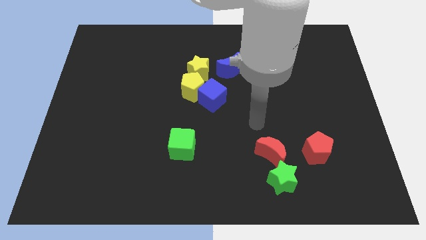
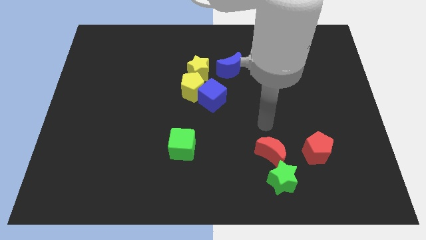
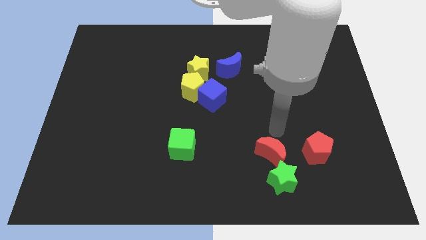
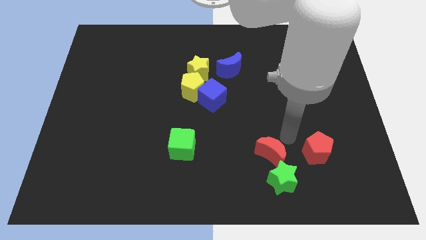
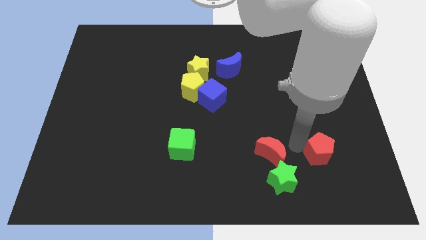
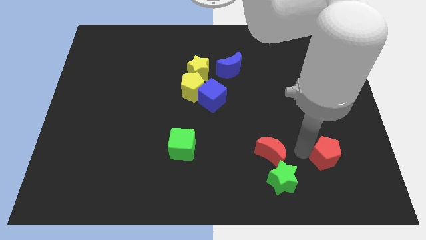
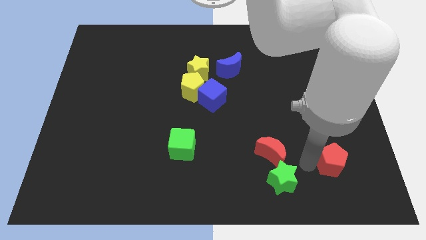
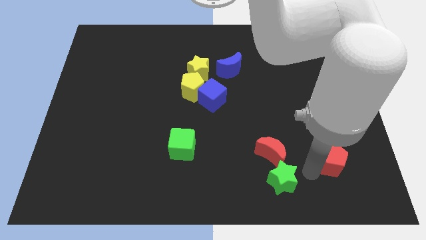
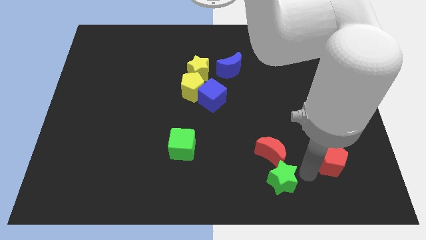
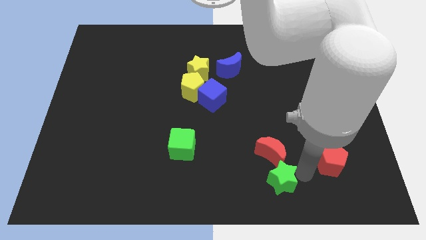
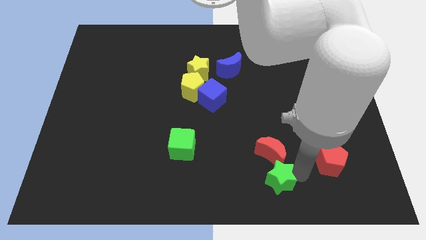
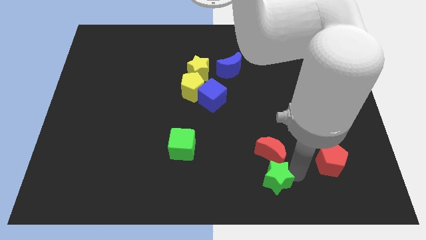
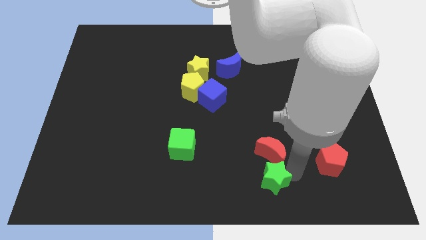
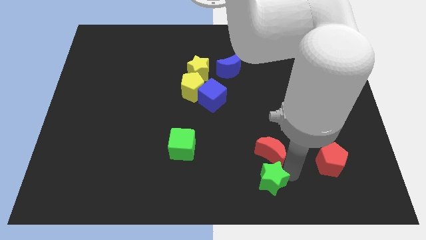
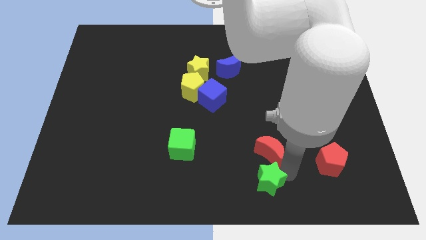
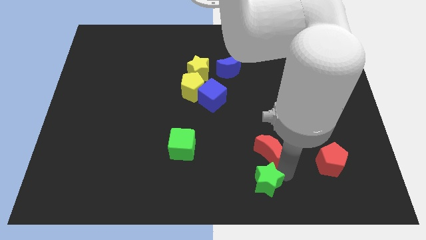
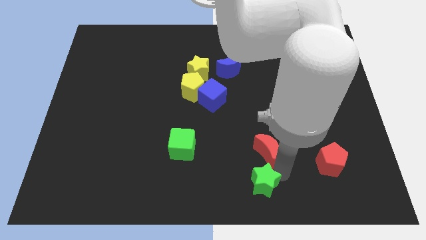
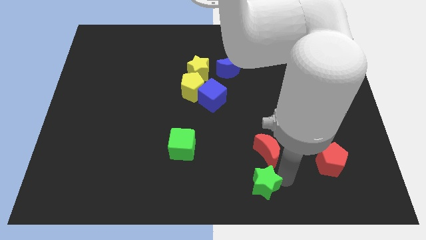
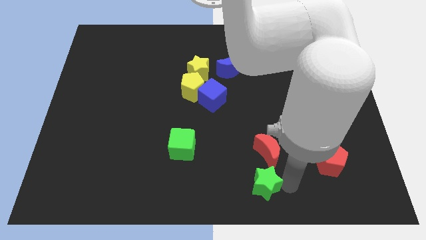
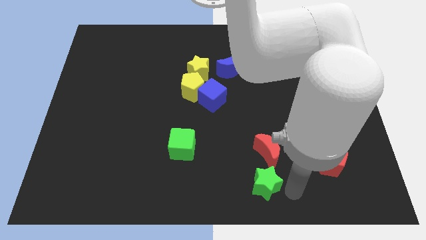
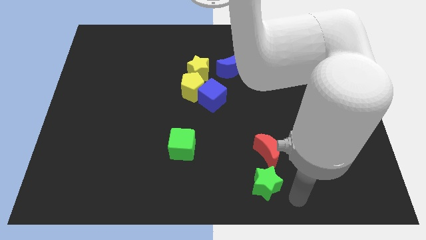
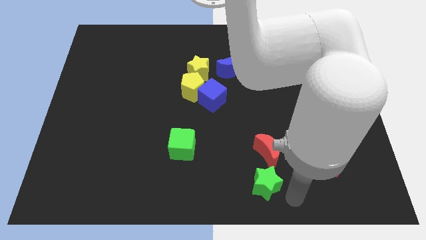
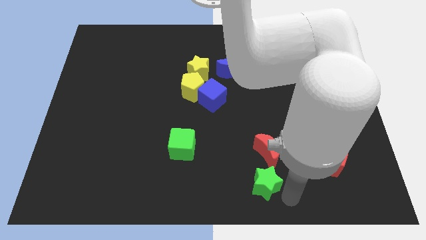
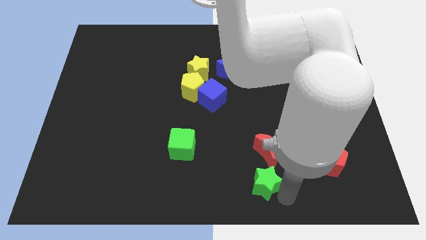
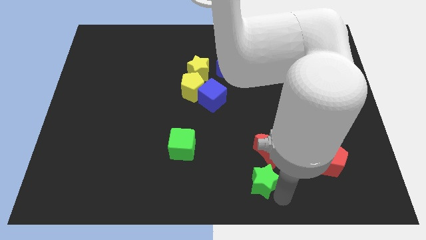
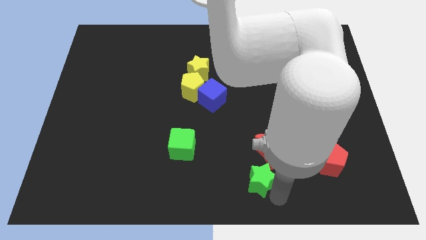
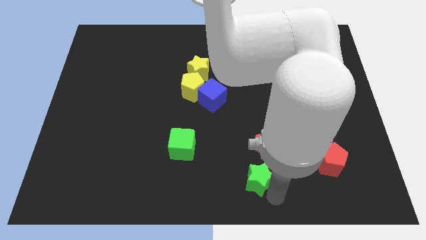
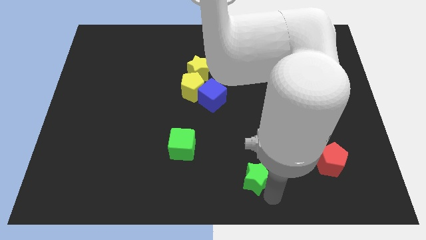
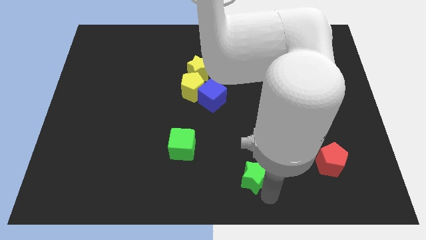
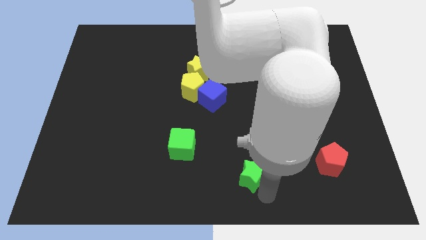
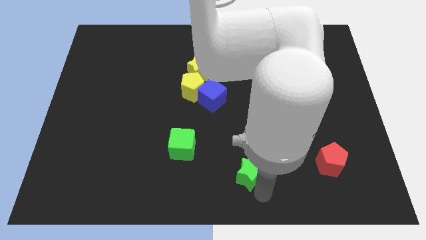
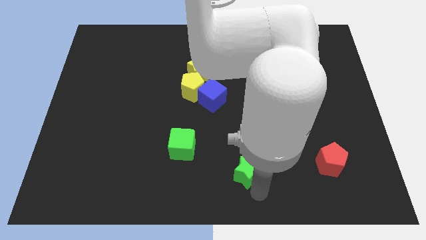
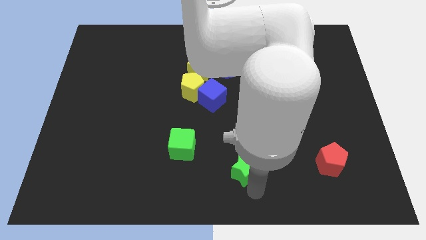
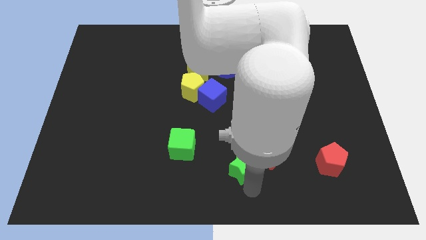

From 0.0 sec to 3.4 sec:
slightly push the green star diagonally upwards and to the left

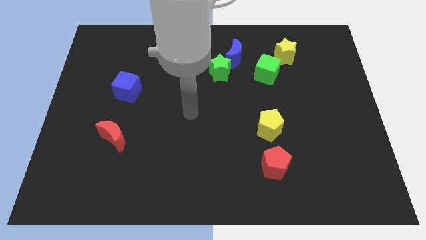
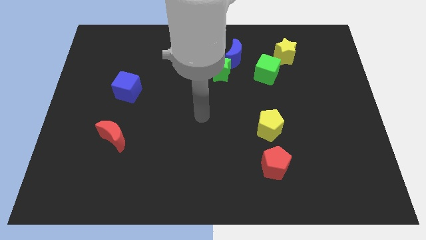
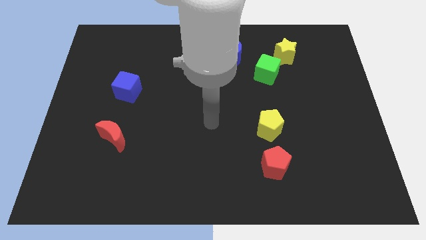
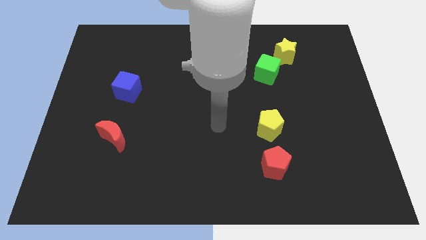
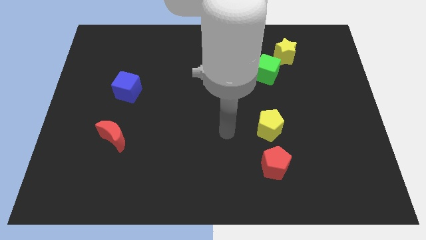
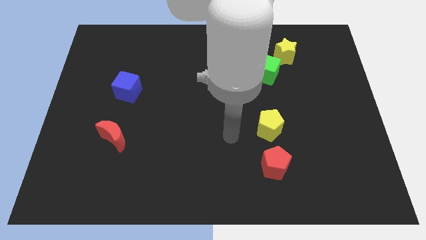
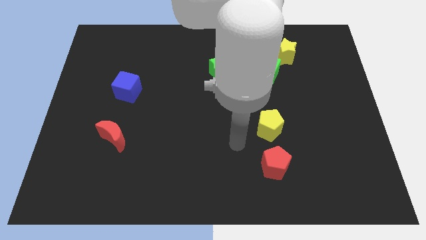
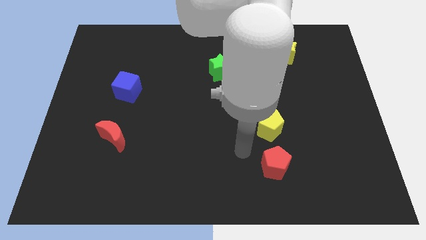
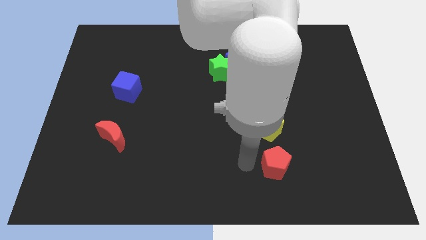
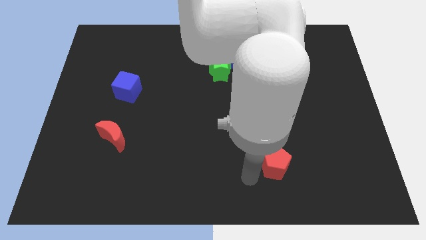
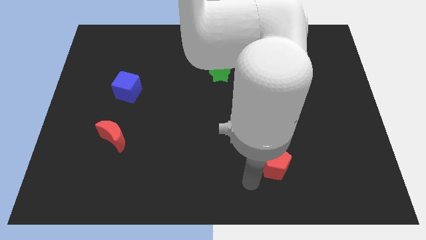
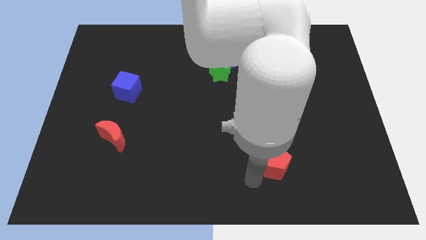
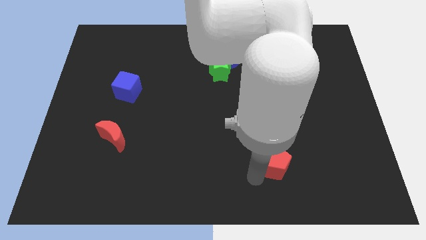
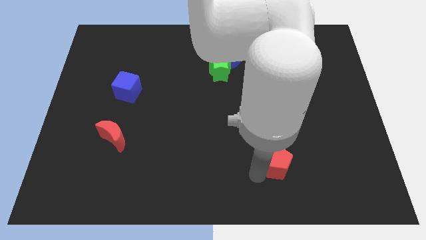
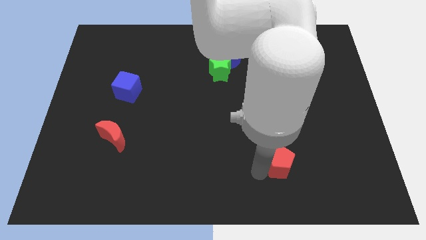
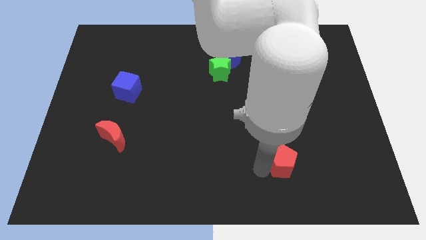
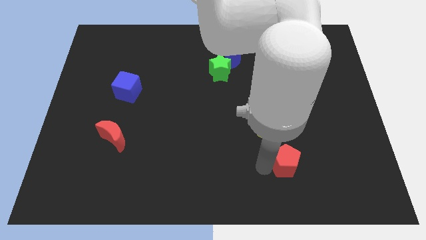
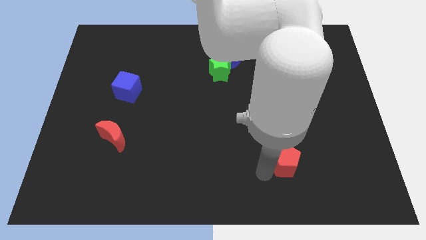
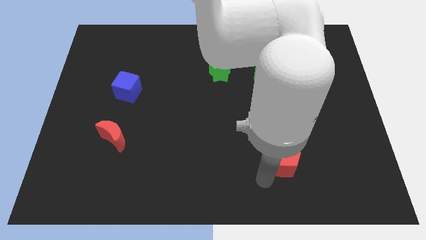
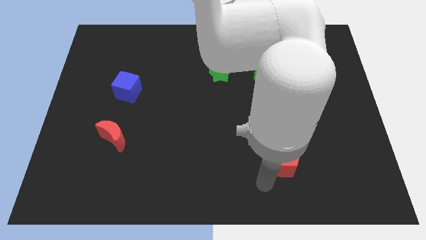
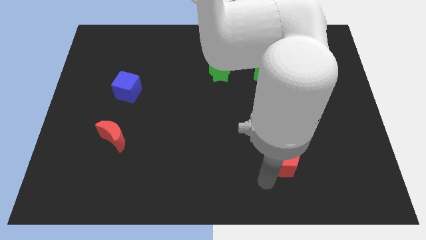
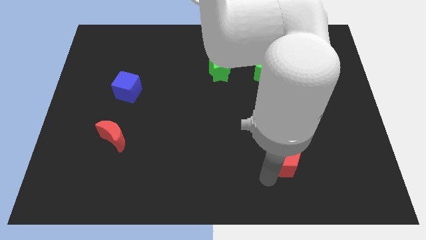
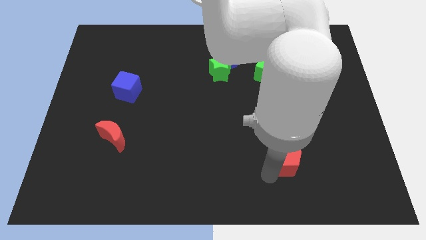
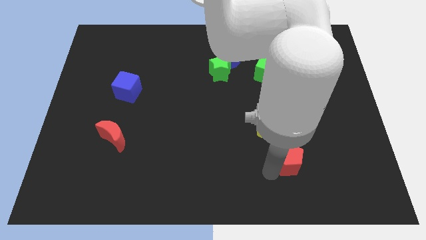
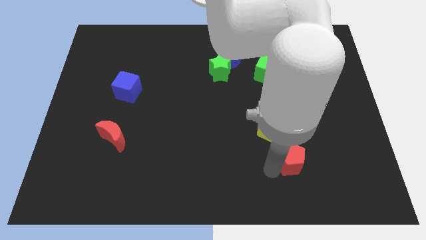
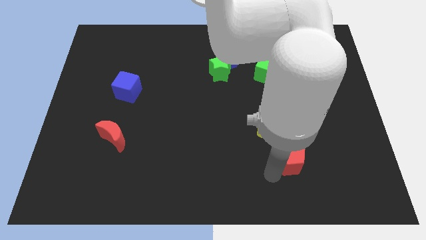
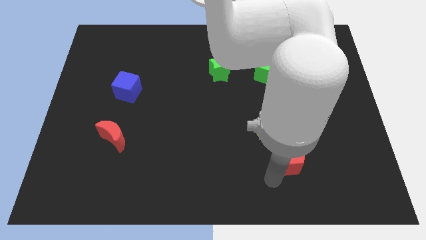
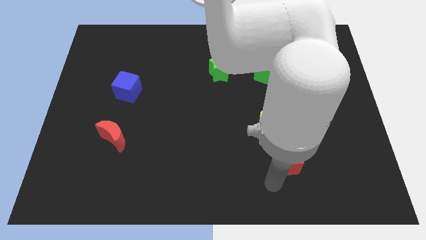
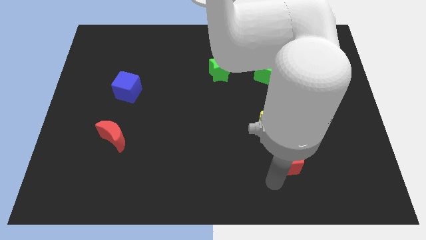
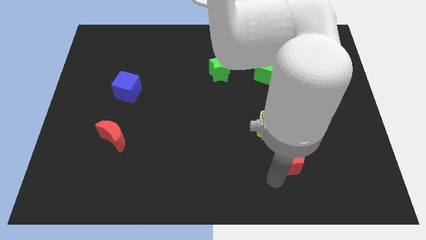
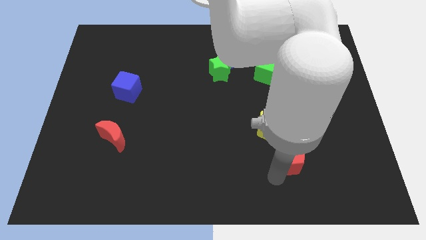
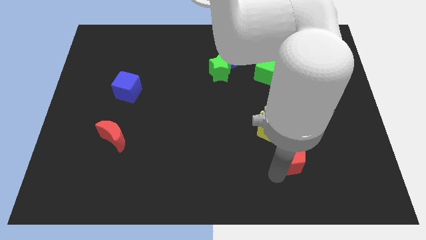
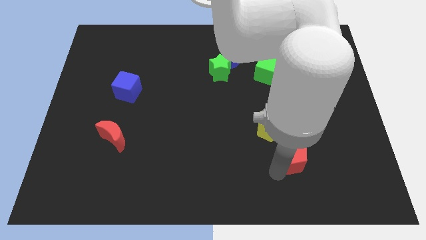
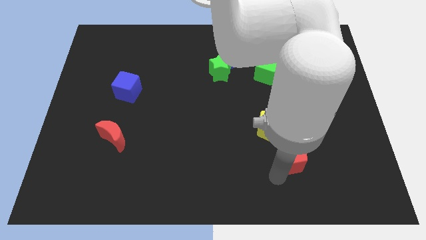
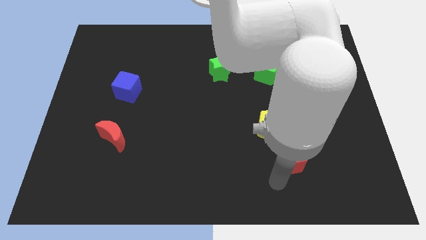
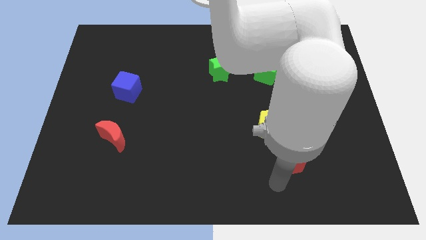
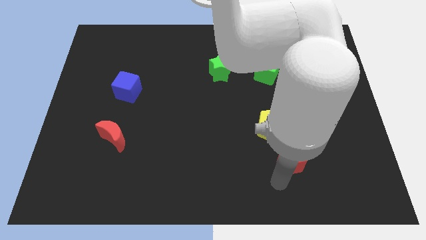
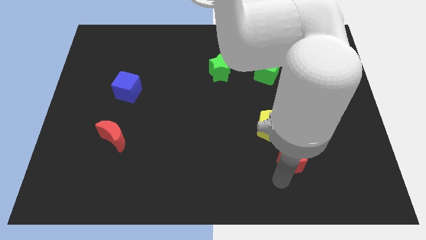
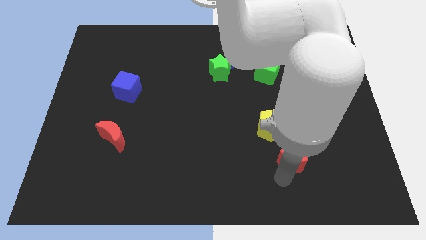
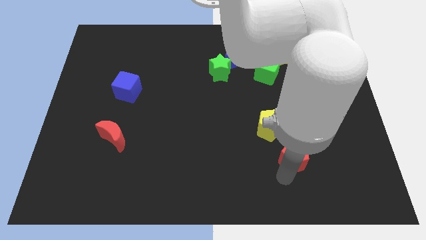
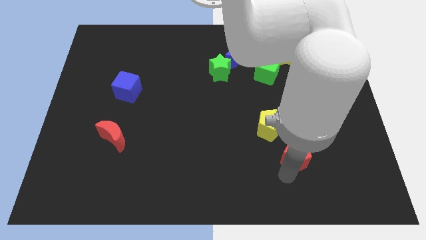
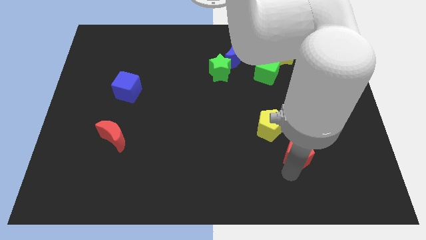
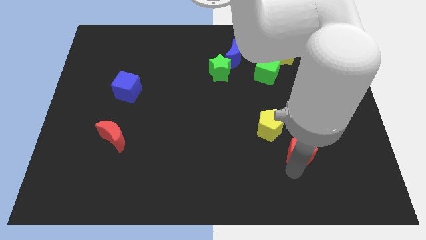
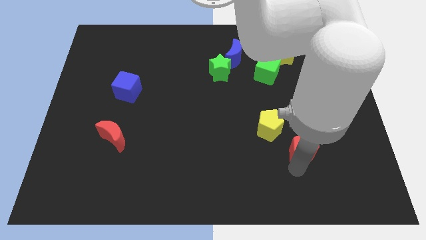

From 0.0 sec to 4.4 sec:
slightly move the red pentagon upwards and to the right

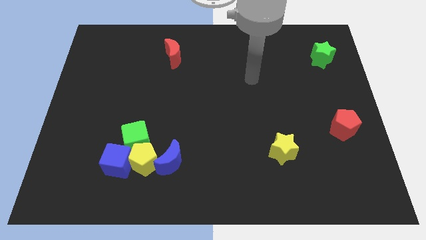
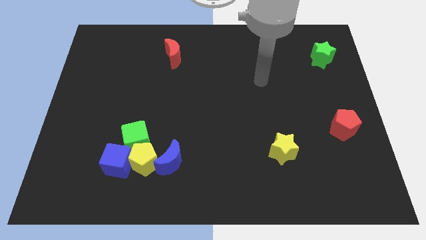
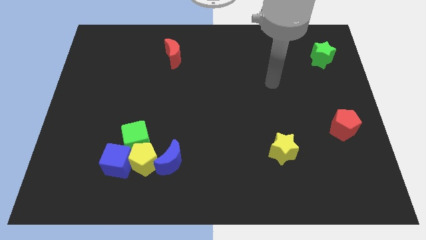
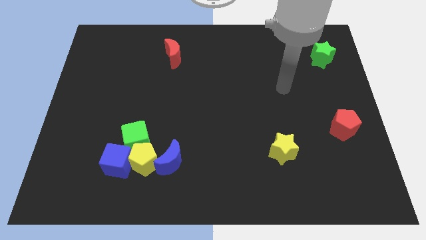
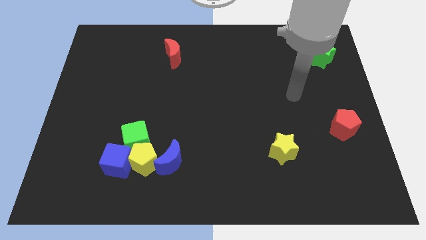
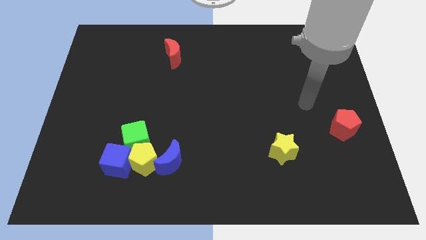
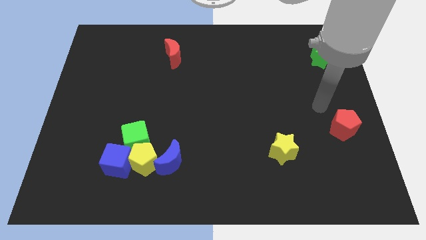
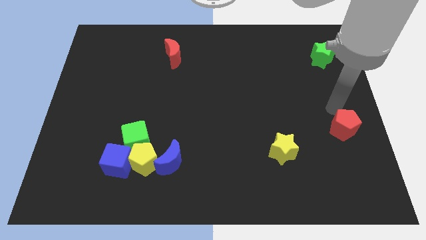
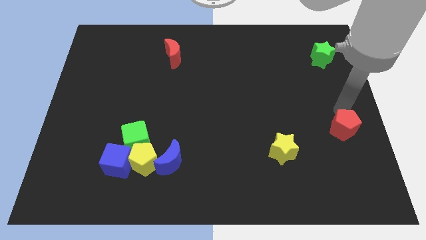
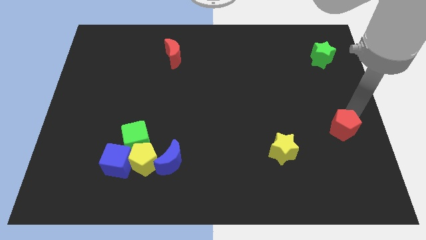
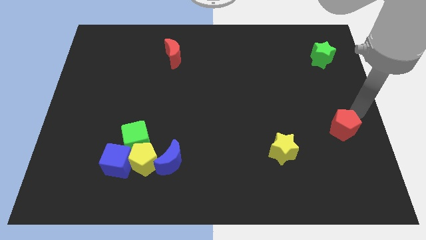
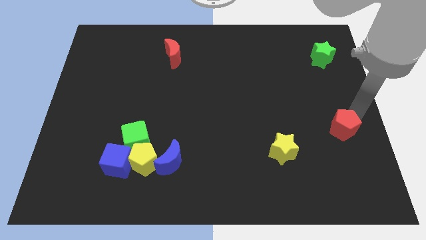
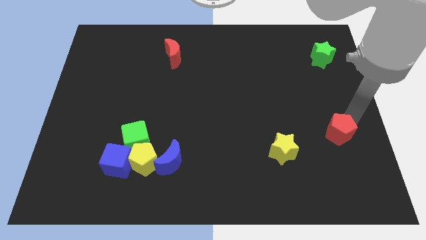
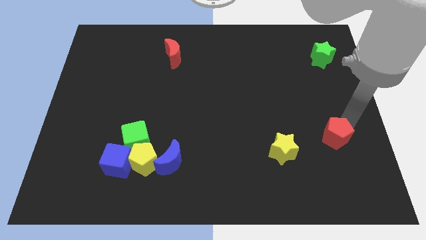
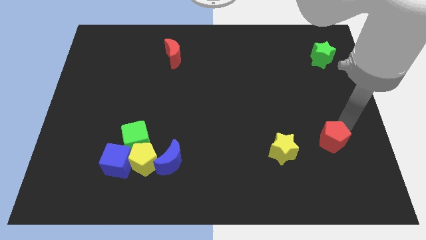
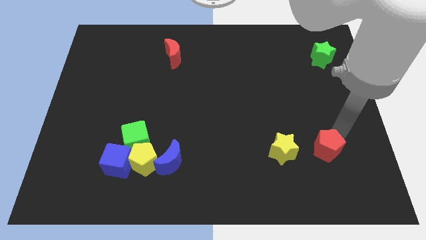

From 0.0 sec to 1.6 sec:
move the red pentagon downwards and then to the left a little
